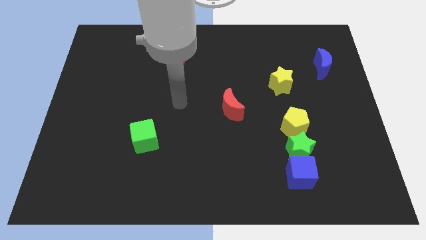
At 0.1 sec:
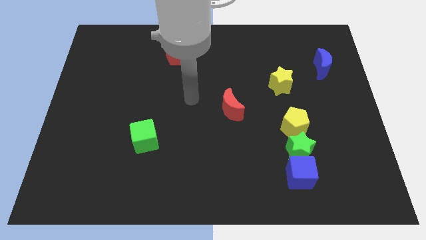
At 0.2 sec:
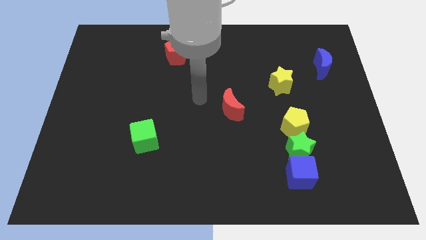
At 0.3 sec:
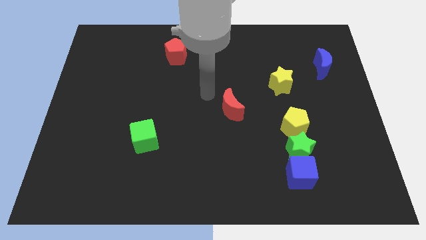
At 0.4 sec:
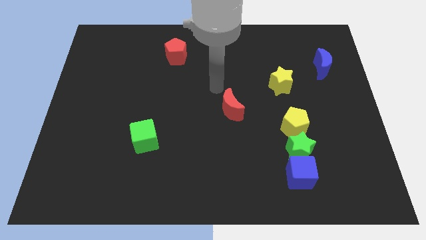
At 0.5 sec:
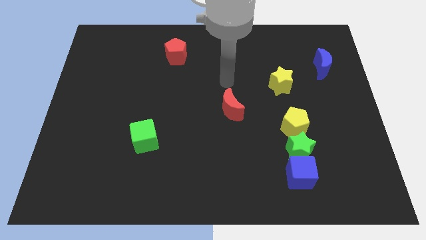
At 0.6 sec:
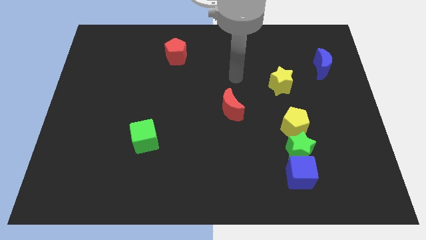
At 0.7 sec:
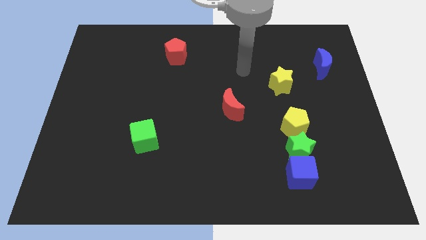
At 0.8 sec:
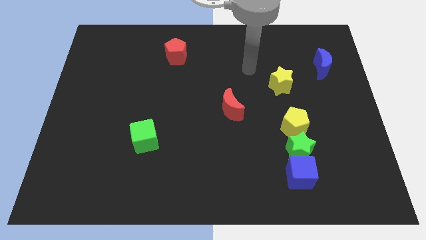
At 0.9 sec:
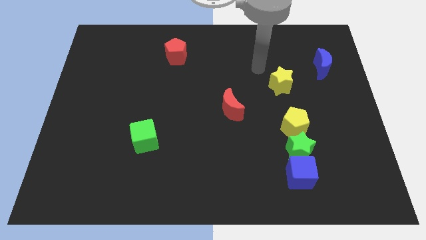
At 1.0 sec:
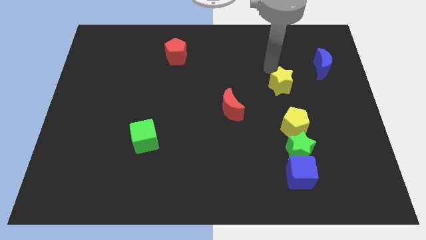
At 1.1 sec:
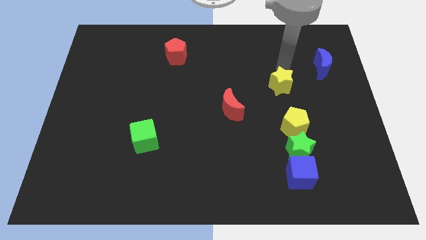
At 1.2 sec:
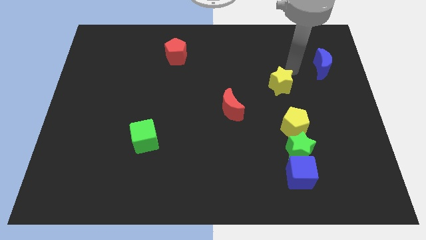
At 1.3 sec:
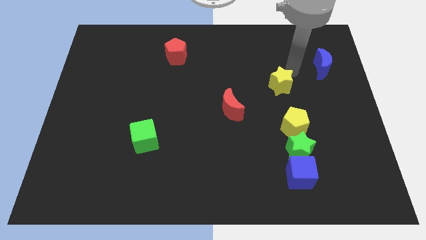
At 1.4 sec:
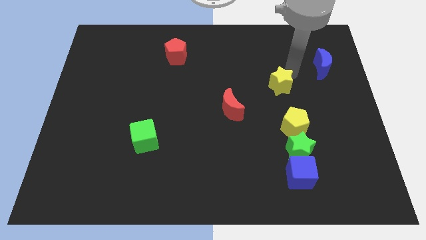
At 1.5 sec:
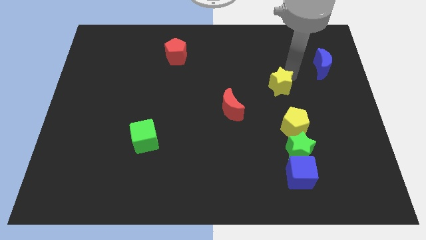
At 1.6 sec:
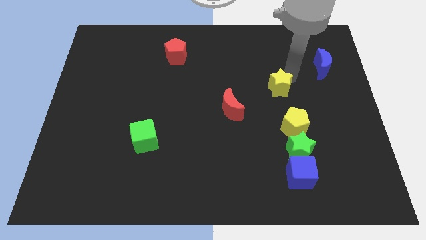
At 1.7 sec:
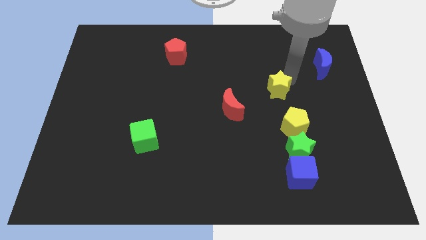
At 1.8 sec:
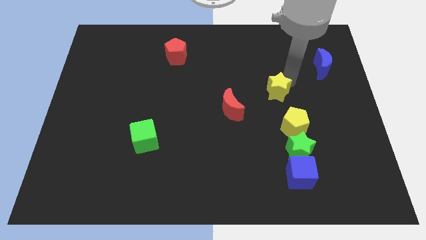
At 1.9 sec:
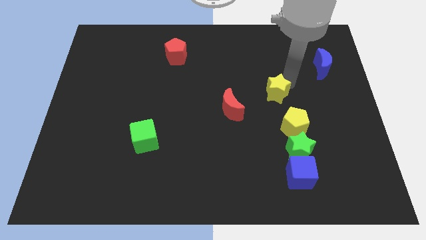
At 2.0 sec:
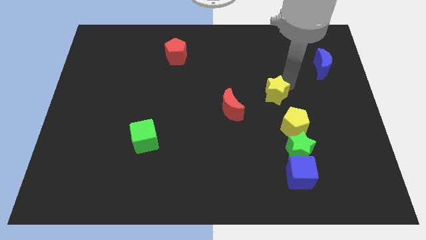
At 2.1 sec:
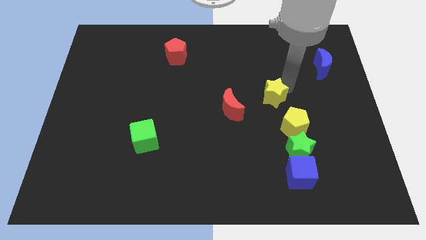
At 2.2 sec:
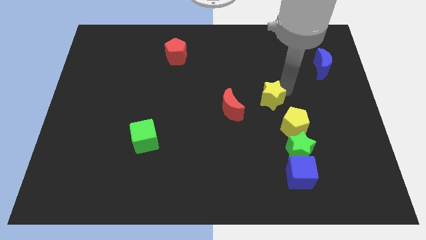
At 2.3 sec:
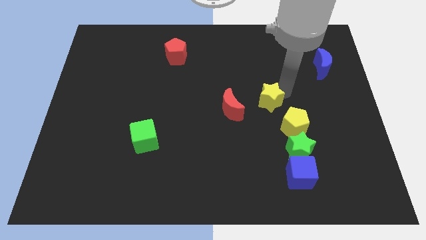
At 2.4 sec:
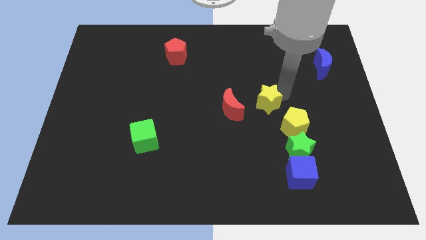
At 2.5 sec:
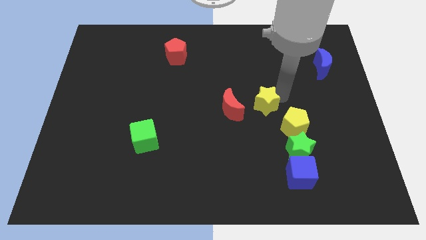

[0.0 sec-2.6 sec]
push the yellow star downwards and then left slightly

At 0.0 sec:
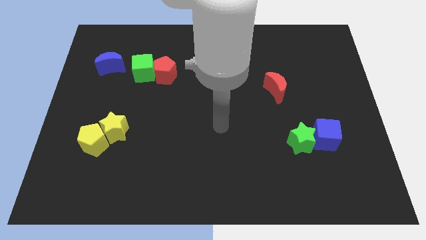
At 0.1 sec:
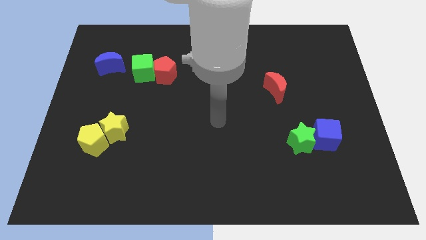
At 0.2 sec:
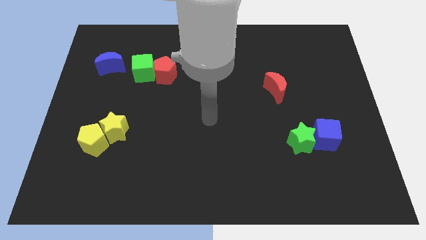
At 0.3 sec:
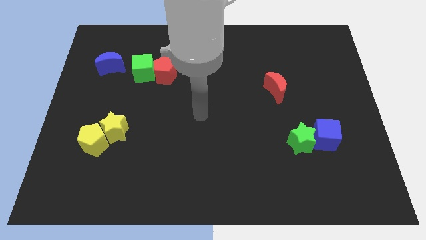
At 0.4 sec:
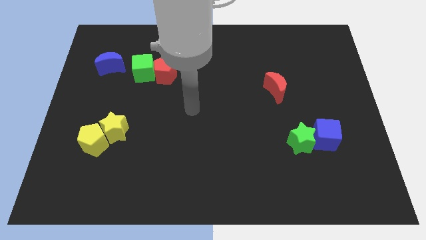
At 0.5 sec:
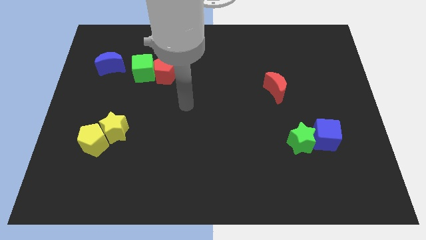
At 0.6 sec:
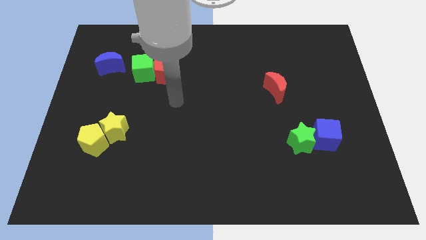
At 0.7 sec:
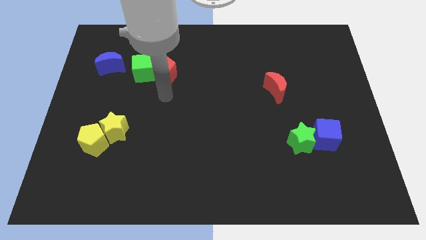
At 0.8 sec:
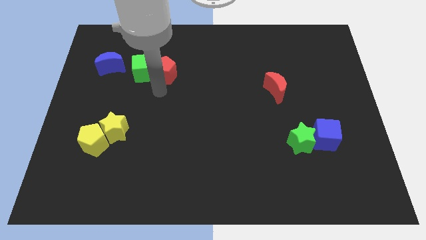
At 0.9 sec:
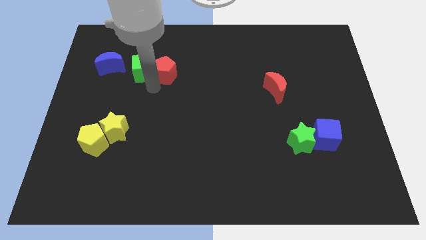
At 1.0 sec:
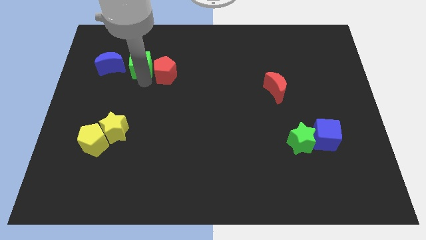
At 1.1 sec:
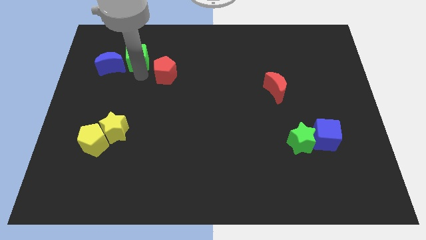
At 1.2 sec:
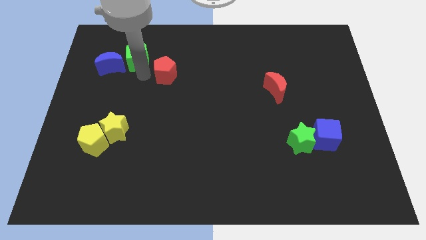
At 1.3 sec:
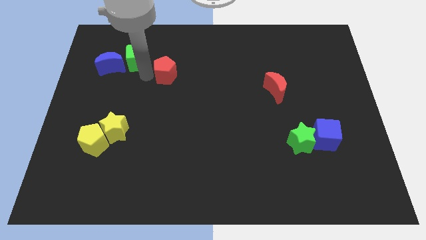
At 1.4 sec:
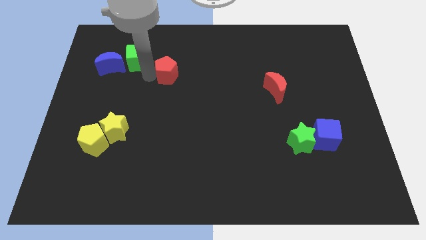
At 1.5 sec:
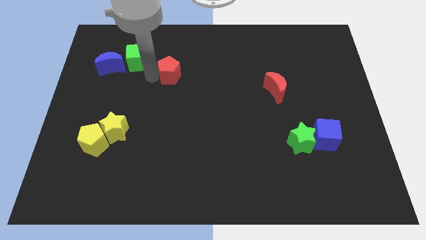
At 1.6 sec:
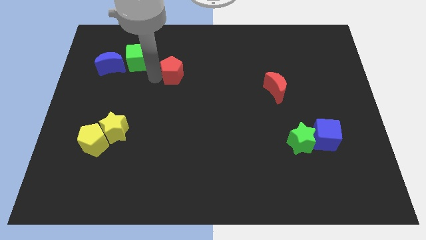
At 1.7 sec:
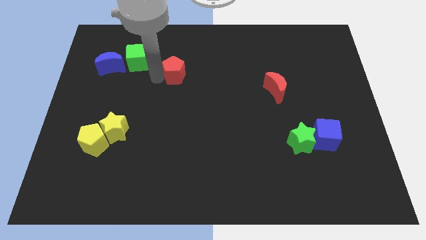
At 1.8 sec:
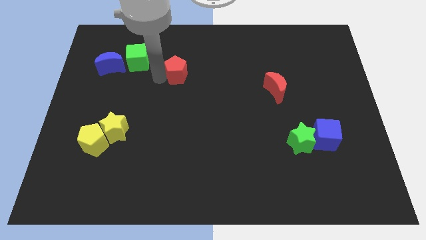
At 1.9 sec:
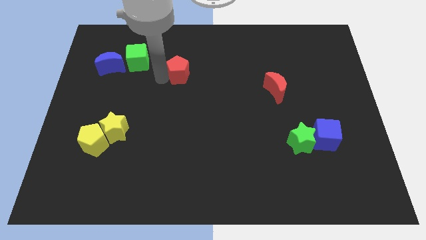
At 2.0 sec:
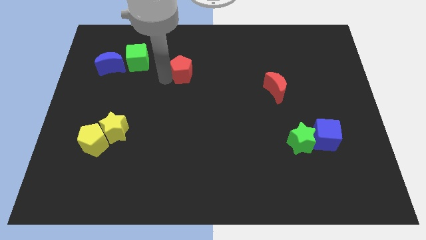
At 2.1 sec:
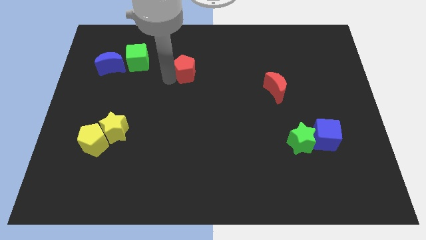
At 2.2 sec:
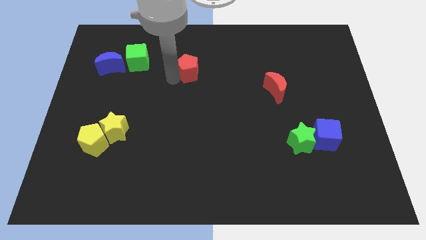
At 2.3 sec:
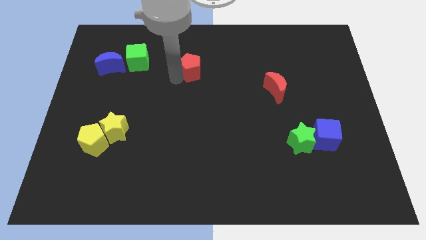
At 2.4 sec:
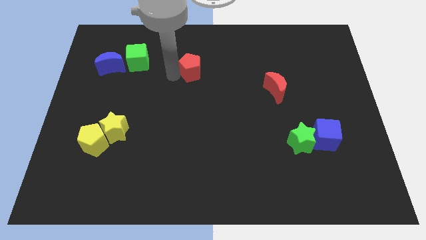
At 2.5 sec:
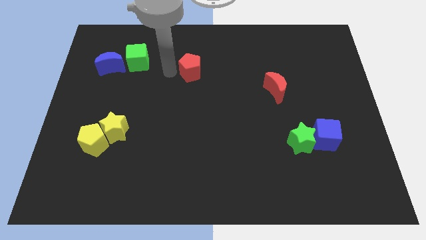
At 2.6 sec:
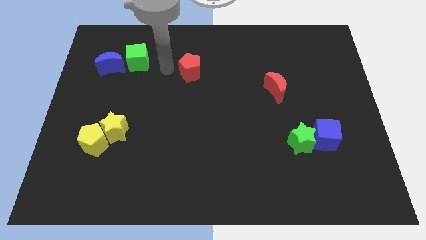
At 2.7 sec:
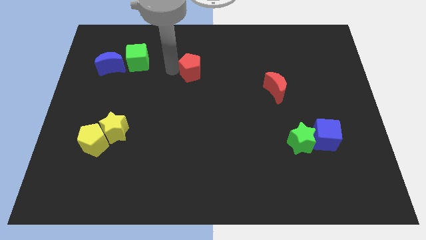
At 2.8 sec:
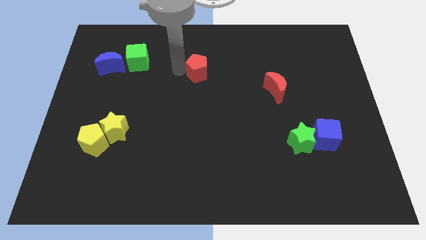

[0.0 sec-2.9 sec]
push the red pentagon to the right a bit

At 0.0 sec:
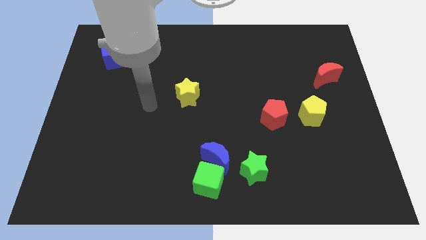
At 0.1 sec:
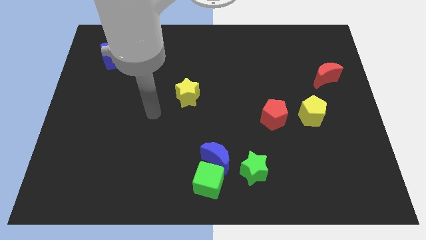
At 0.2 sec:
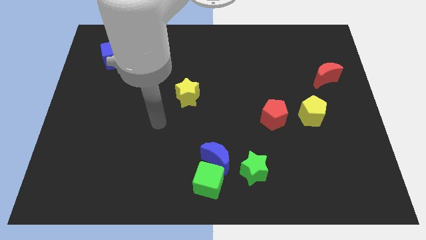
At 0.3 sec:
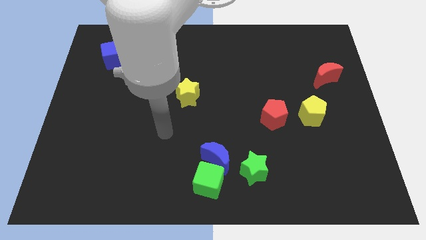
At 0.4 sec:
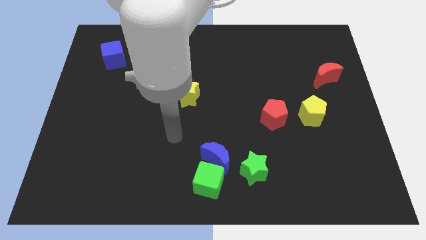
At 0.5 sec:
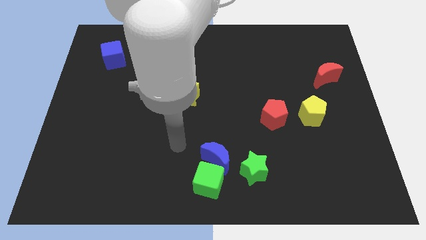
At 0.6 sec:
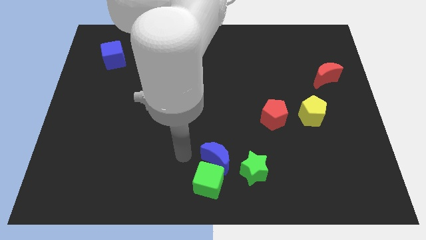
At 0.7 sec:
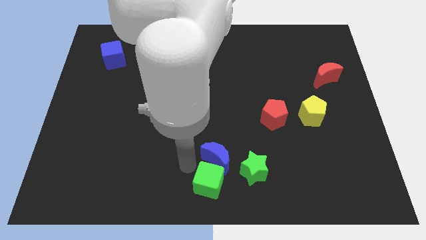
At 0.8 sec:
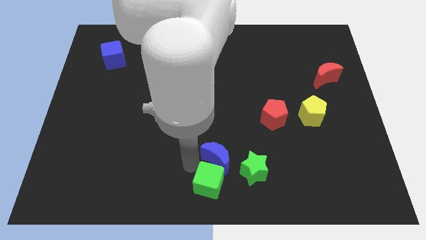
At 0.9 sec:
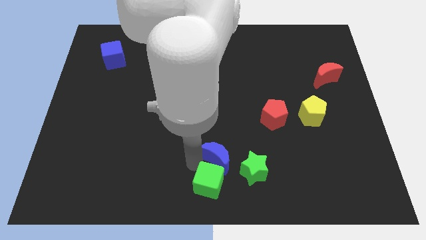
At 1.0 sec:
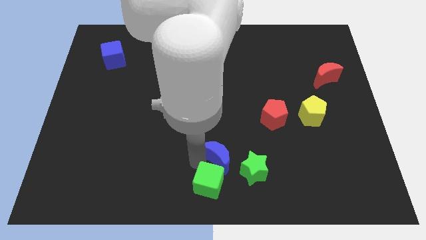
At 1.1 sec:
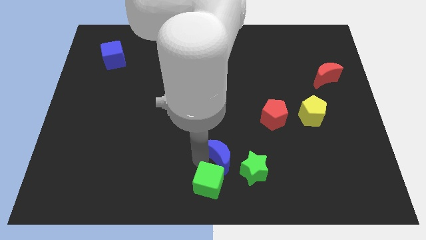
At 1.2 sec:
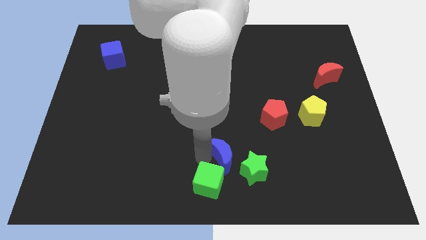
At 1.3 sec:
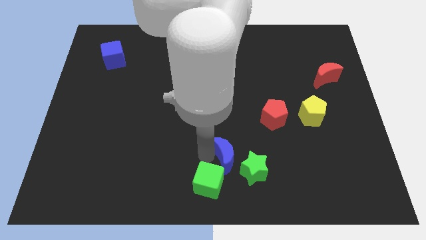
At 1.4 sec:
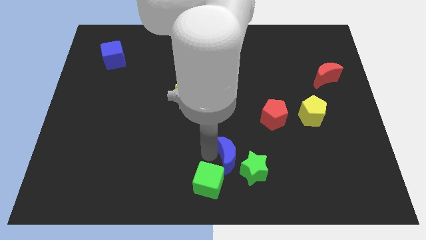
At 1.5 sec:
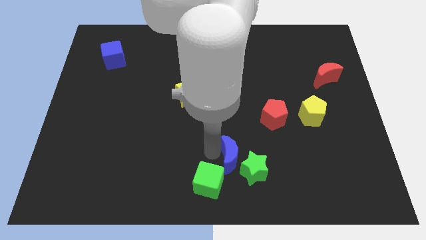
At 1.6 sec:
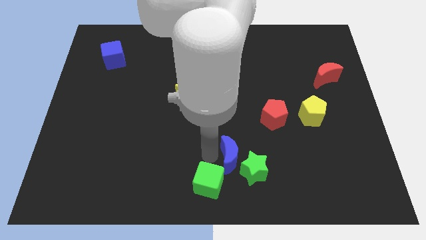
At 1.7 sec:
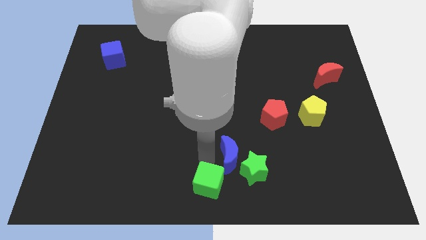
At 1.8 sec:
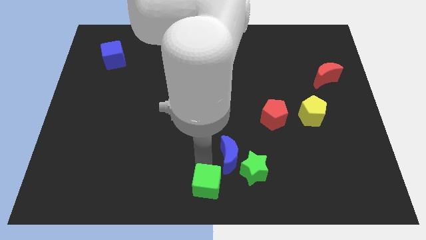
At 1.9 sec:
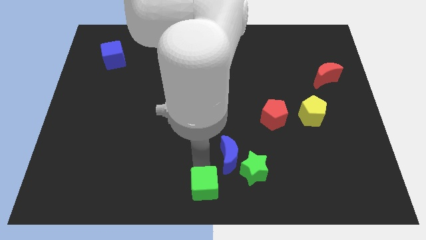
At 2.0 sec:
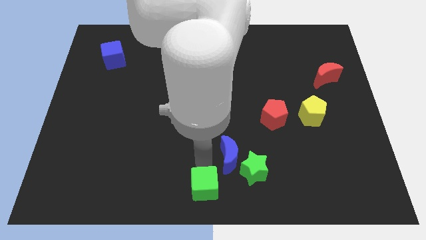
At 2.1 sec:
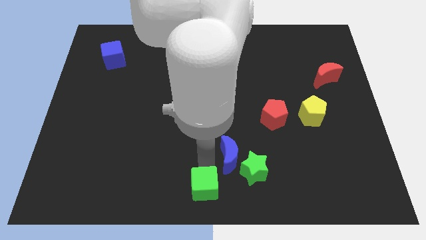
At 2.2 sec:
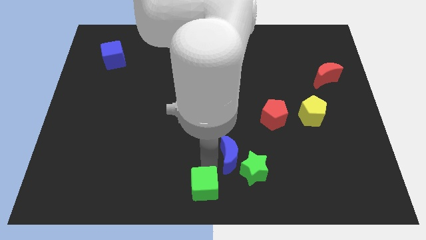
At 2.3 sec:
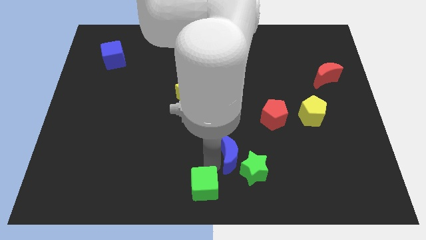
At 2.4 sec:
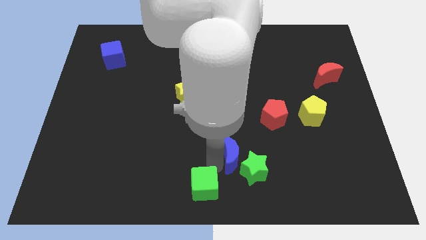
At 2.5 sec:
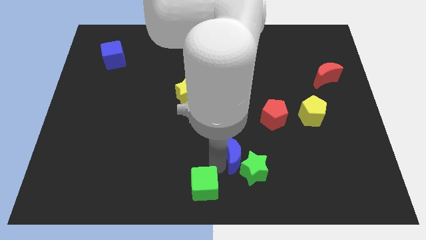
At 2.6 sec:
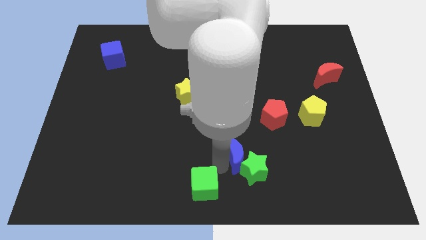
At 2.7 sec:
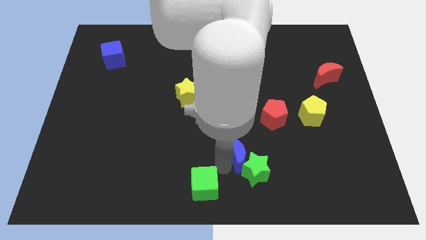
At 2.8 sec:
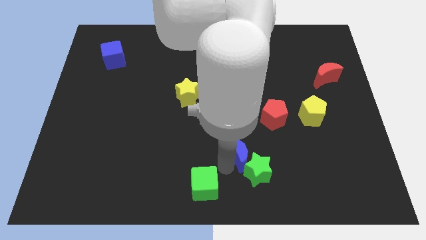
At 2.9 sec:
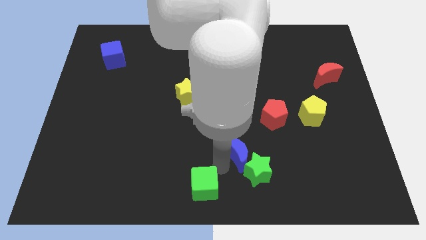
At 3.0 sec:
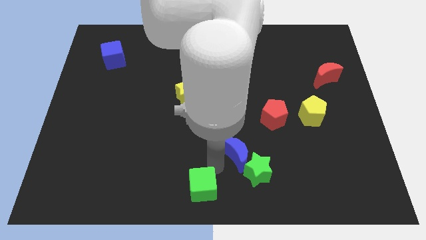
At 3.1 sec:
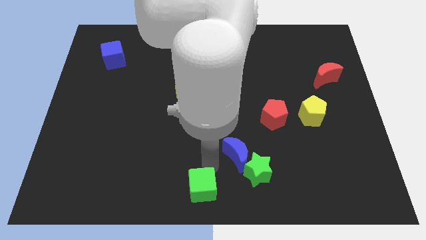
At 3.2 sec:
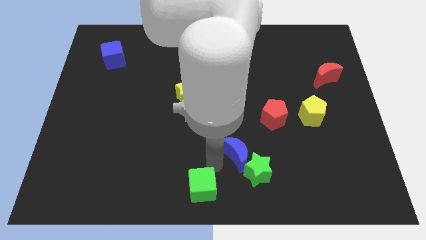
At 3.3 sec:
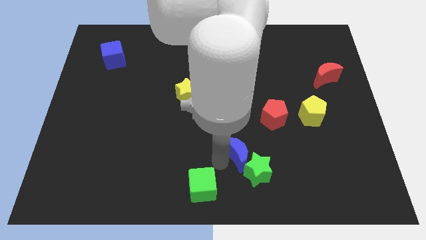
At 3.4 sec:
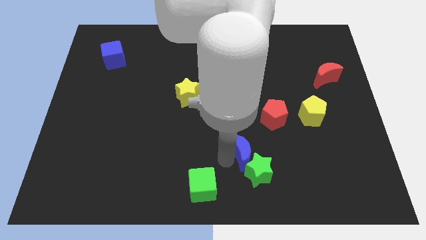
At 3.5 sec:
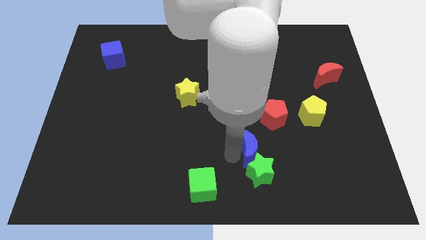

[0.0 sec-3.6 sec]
slightly push the blue moon right
